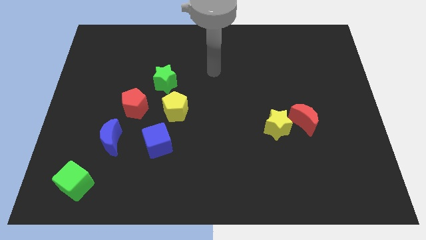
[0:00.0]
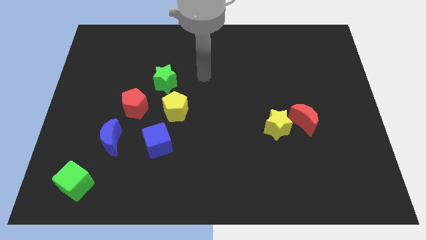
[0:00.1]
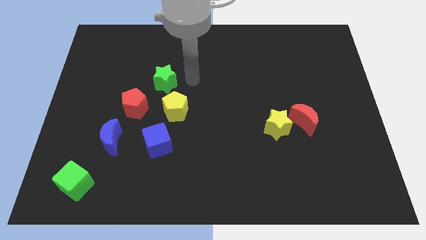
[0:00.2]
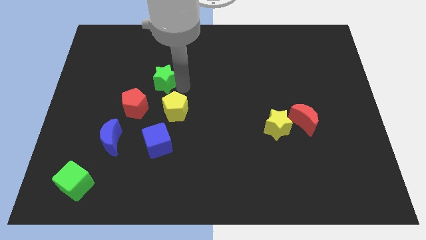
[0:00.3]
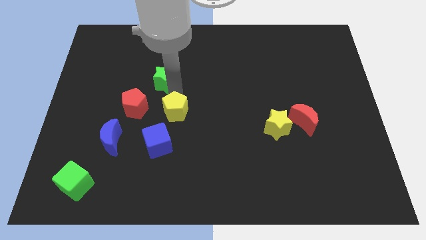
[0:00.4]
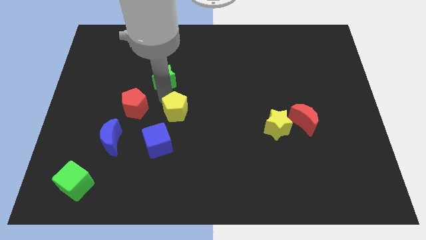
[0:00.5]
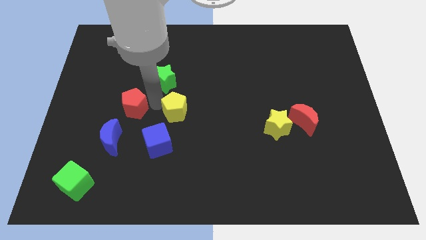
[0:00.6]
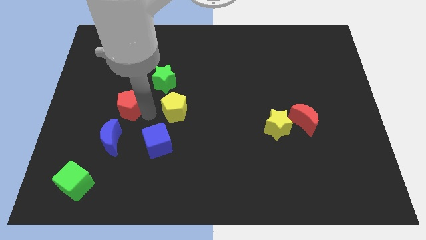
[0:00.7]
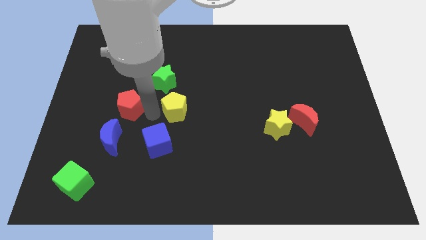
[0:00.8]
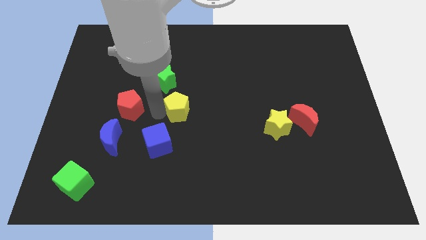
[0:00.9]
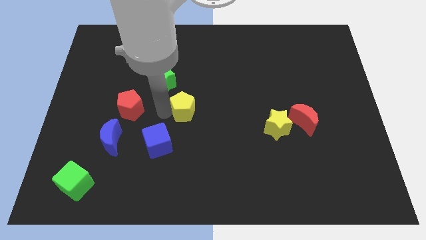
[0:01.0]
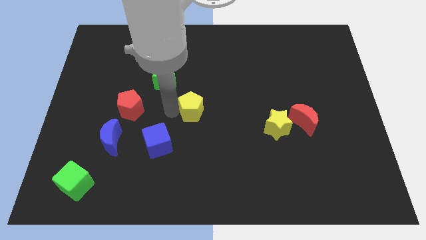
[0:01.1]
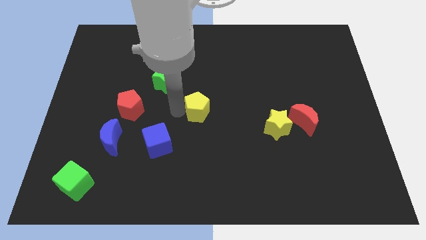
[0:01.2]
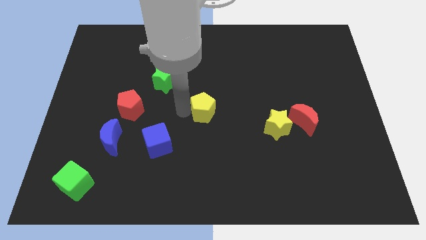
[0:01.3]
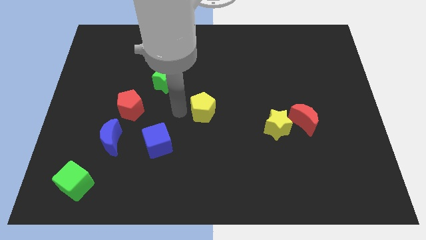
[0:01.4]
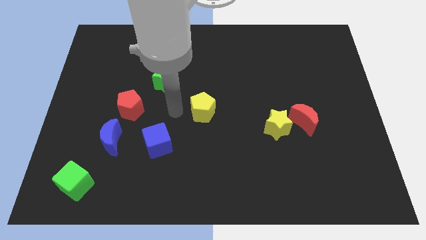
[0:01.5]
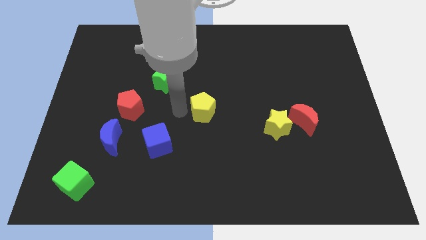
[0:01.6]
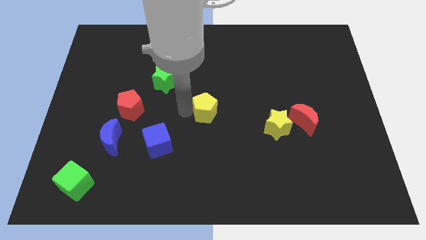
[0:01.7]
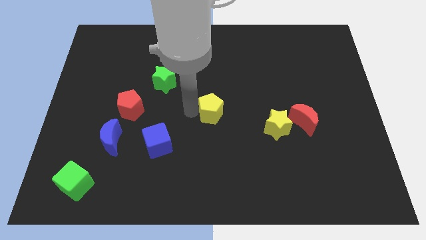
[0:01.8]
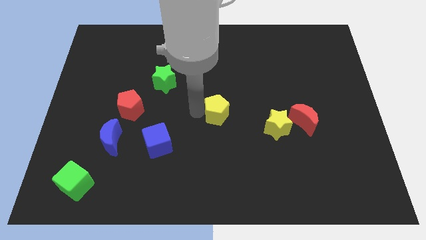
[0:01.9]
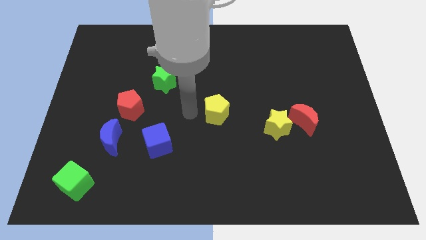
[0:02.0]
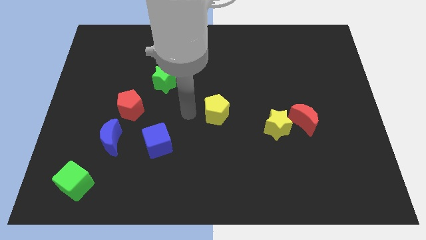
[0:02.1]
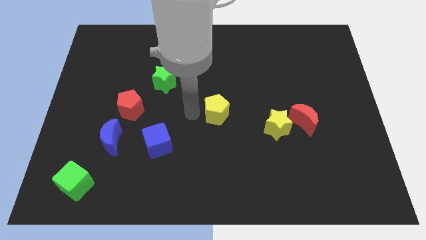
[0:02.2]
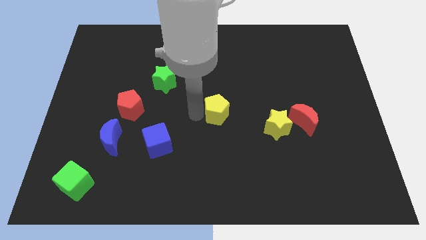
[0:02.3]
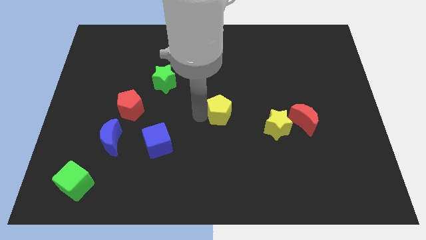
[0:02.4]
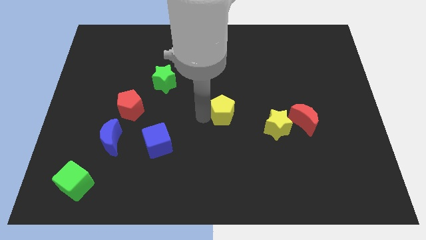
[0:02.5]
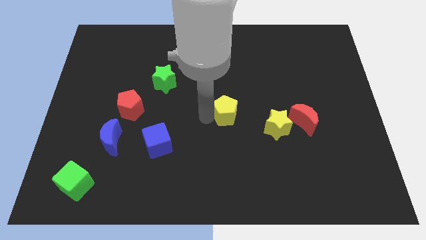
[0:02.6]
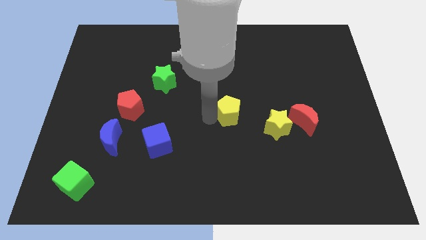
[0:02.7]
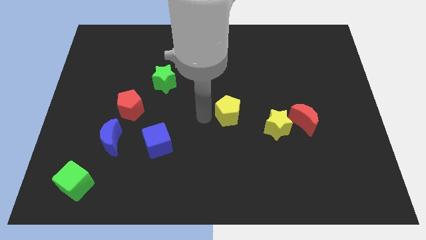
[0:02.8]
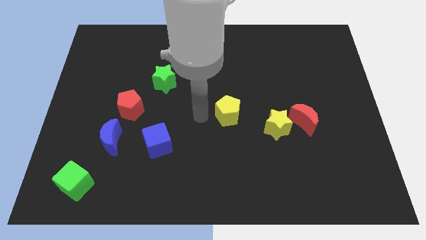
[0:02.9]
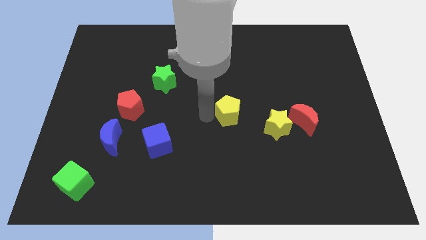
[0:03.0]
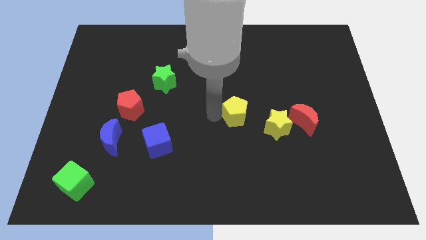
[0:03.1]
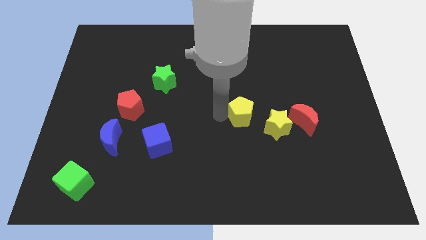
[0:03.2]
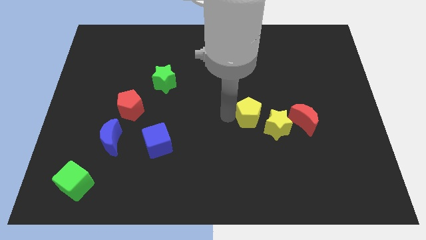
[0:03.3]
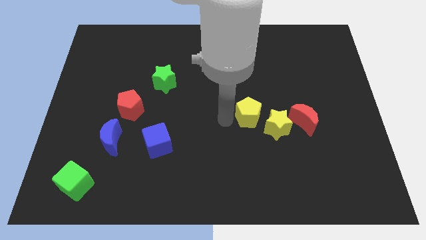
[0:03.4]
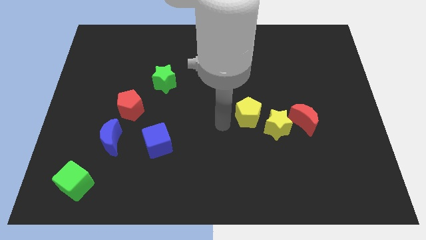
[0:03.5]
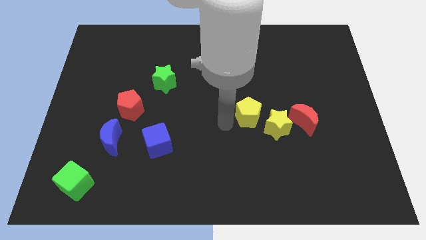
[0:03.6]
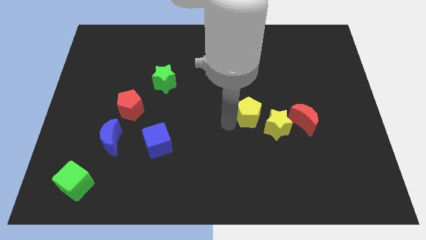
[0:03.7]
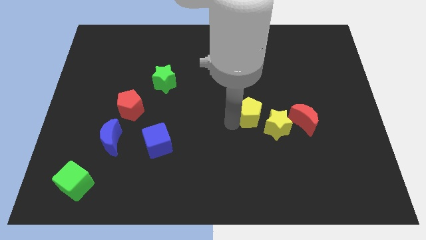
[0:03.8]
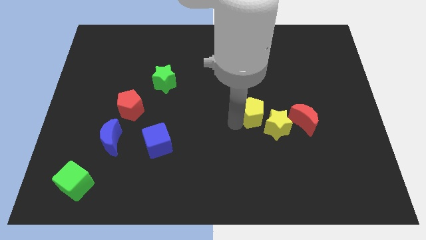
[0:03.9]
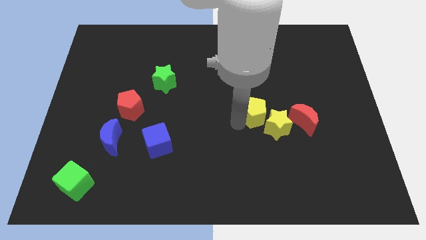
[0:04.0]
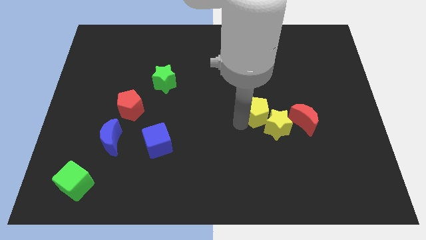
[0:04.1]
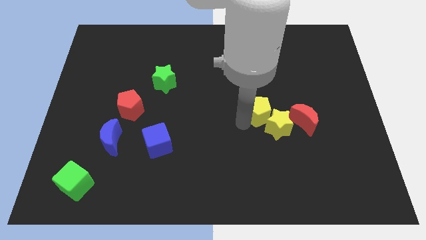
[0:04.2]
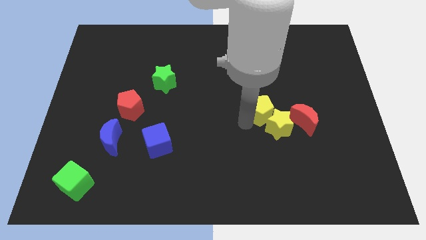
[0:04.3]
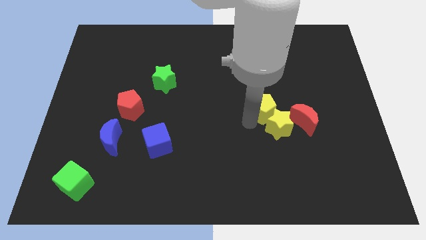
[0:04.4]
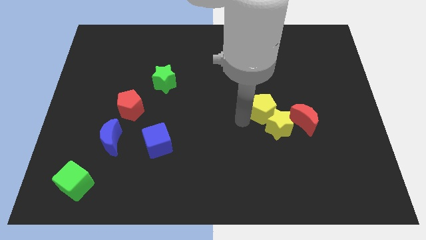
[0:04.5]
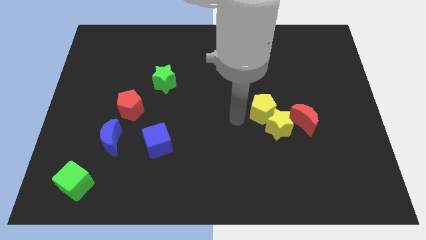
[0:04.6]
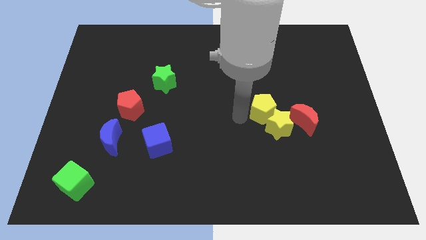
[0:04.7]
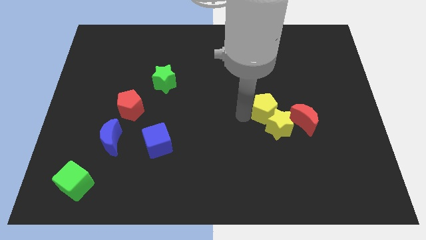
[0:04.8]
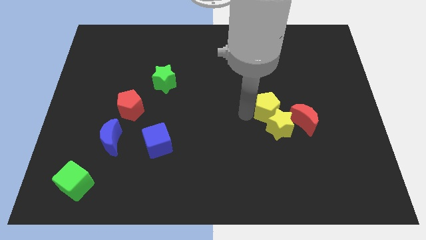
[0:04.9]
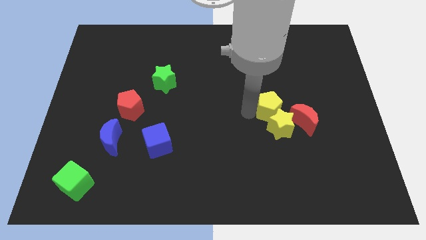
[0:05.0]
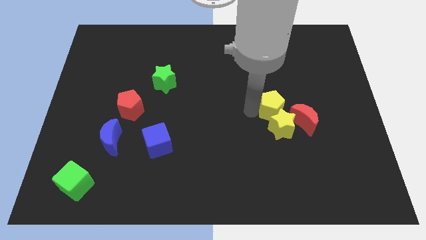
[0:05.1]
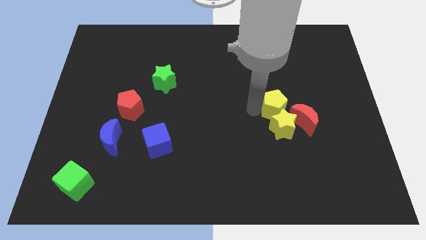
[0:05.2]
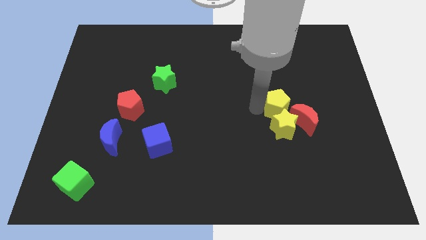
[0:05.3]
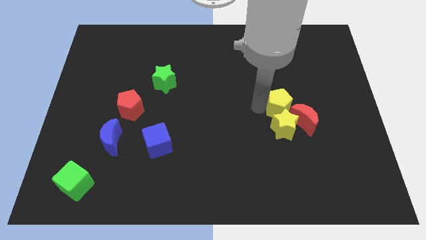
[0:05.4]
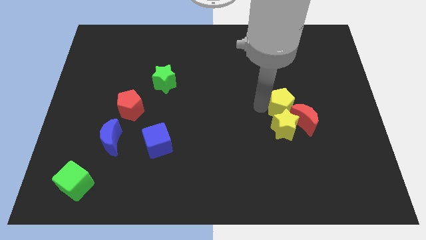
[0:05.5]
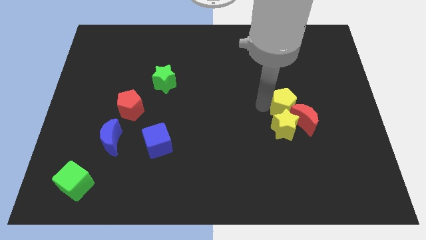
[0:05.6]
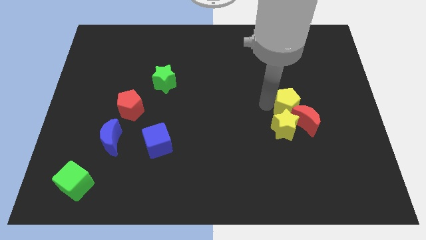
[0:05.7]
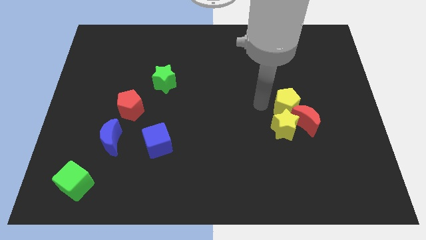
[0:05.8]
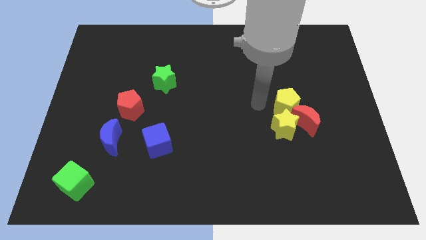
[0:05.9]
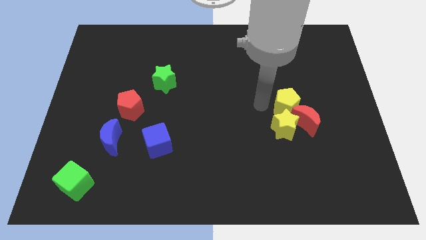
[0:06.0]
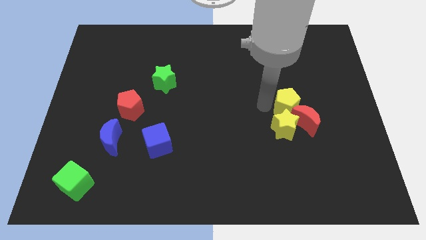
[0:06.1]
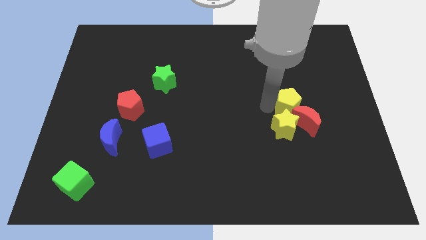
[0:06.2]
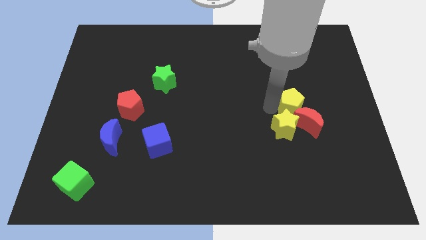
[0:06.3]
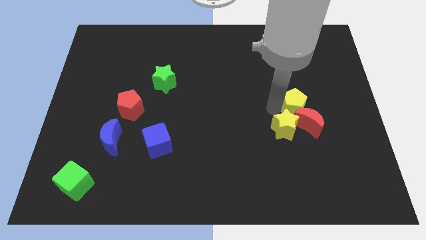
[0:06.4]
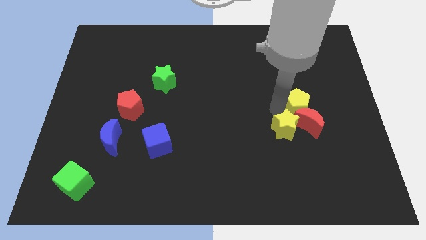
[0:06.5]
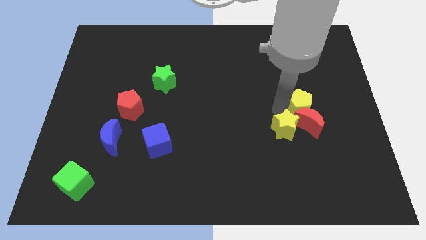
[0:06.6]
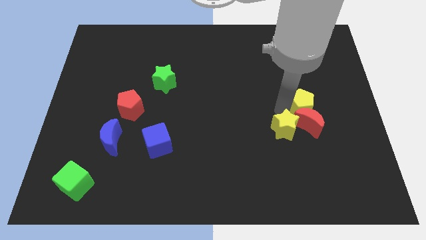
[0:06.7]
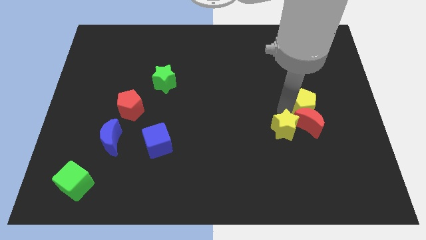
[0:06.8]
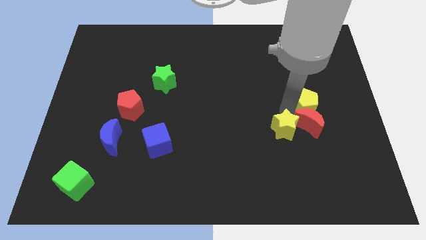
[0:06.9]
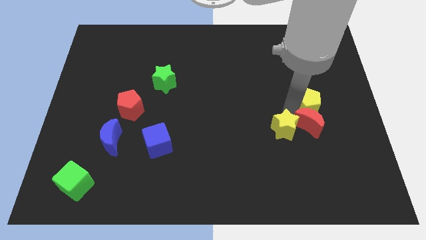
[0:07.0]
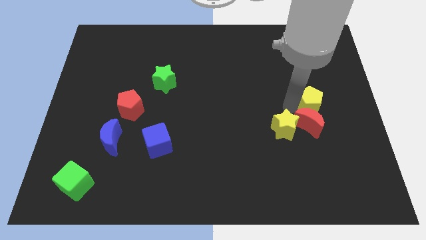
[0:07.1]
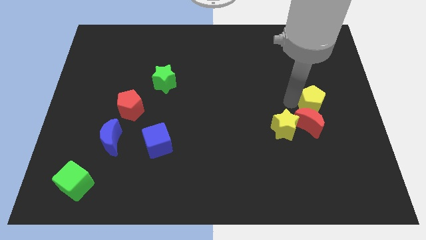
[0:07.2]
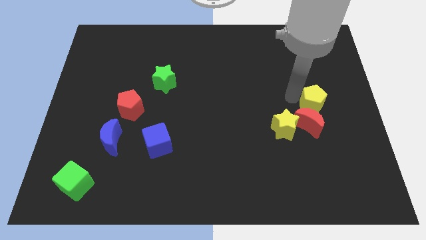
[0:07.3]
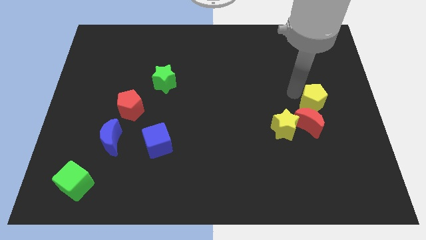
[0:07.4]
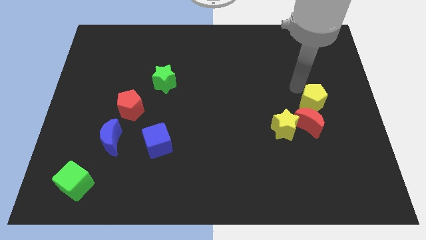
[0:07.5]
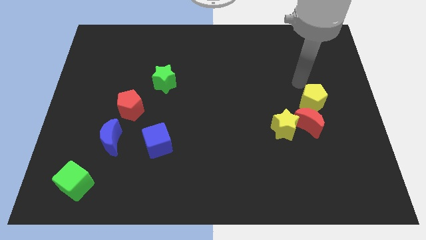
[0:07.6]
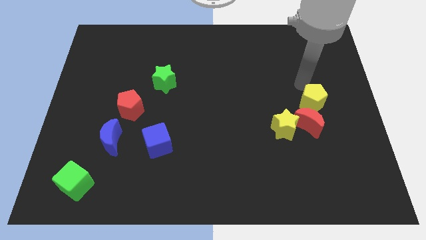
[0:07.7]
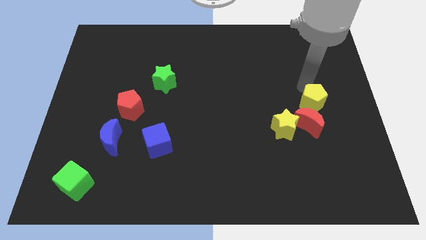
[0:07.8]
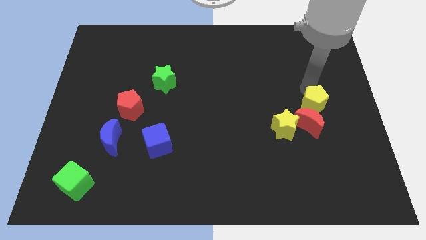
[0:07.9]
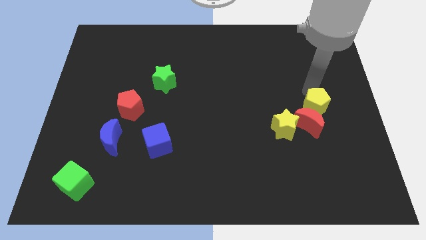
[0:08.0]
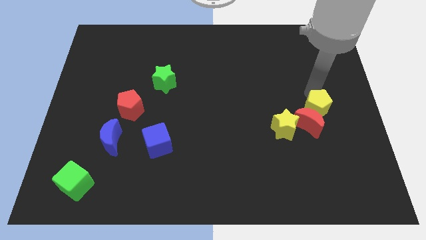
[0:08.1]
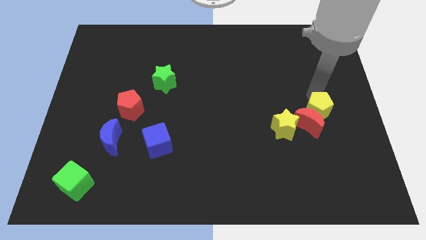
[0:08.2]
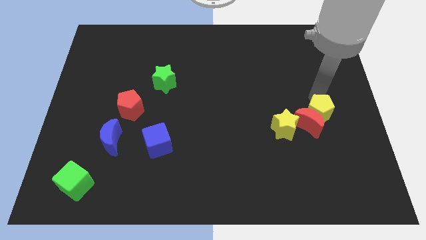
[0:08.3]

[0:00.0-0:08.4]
push the yellow pentagon to the right of the yellow star
